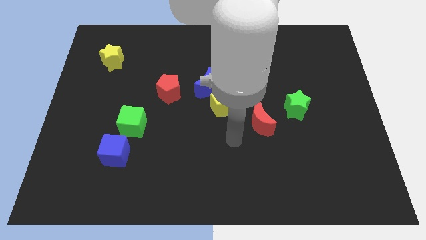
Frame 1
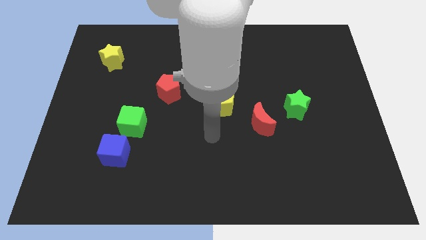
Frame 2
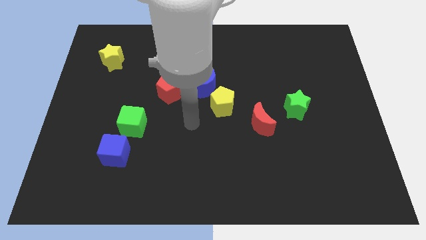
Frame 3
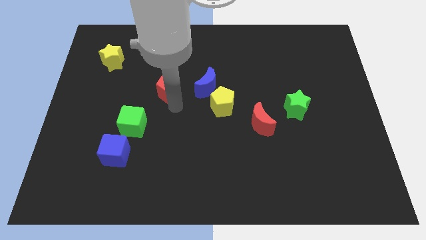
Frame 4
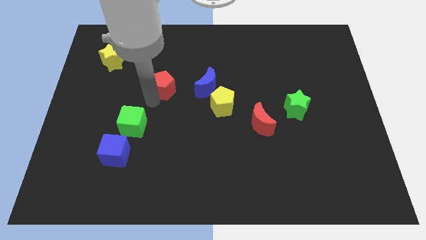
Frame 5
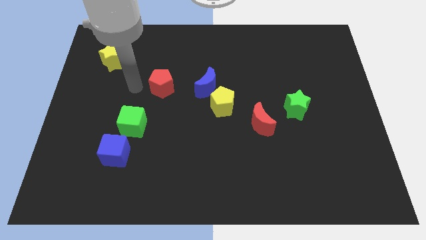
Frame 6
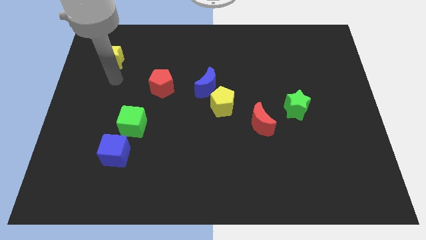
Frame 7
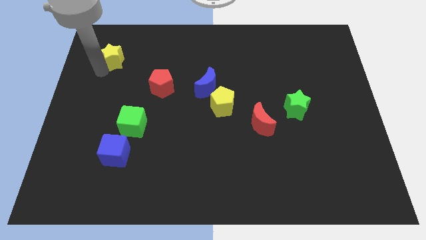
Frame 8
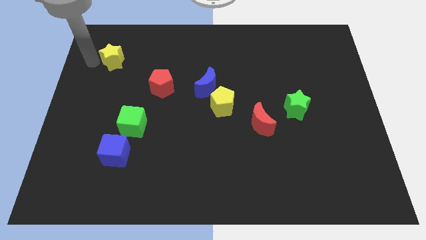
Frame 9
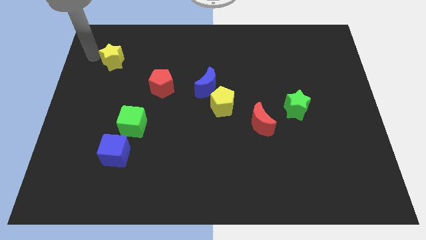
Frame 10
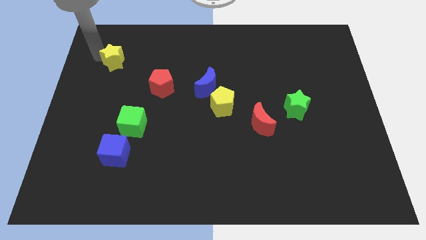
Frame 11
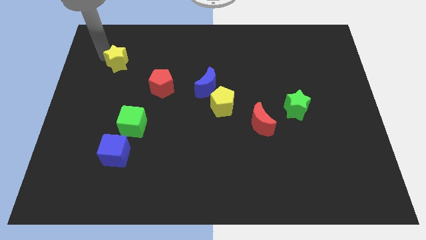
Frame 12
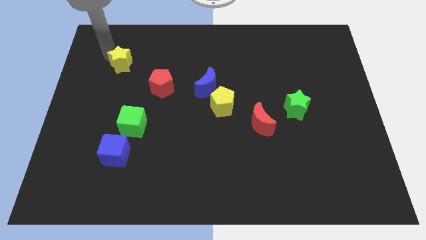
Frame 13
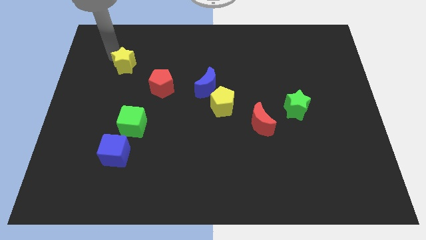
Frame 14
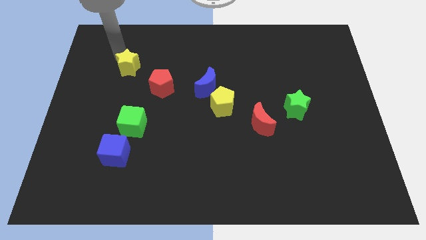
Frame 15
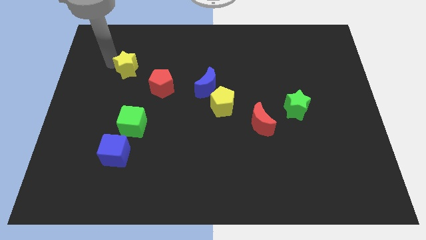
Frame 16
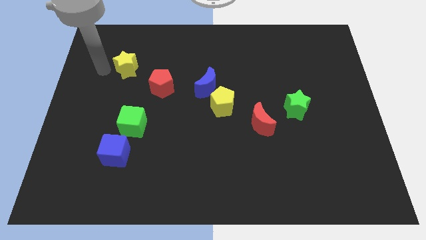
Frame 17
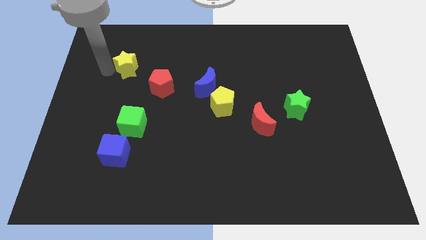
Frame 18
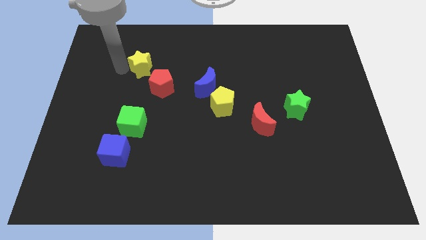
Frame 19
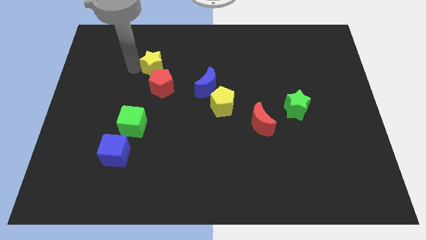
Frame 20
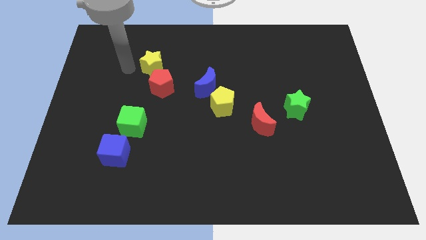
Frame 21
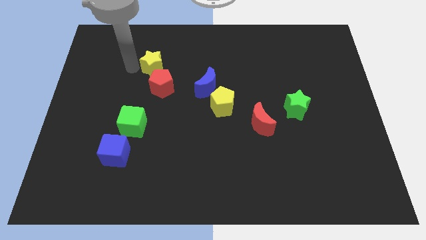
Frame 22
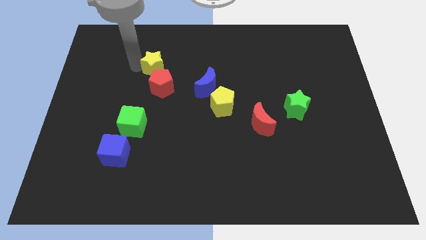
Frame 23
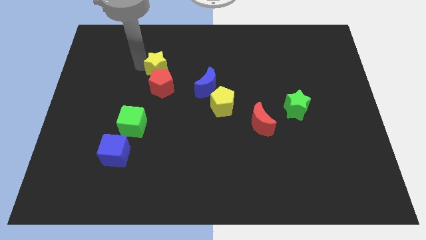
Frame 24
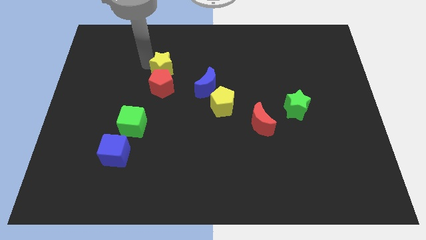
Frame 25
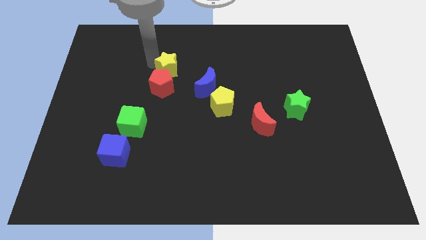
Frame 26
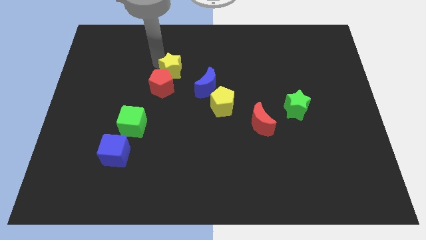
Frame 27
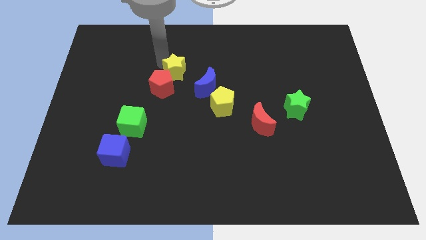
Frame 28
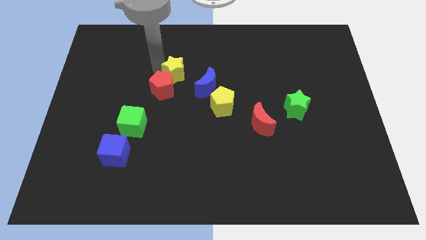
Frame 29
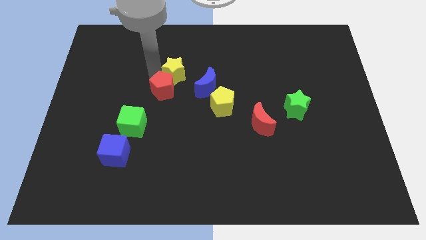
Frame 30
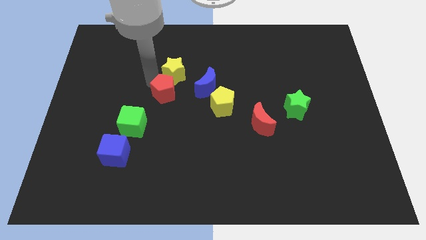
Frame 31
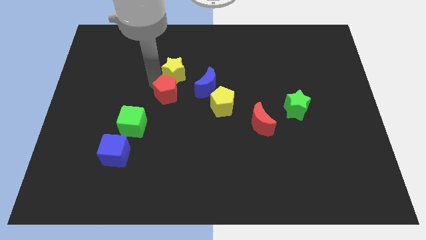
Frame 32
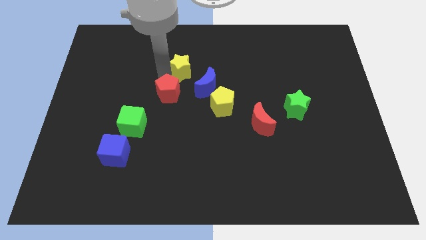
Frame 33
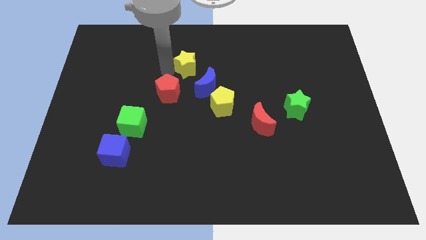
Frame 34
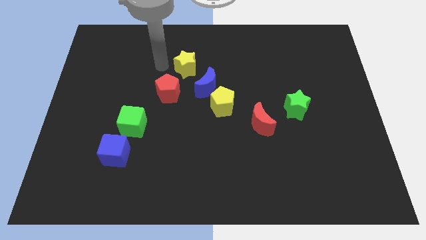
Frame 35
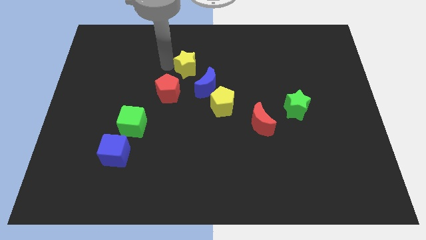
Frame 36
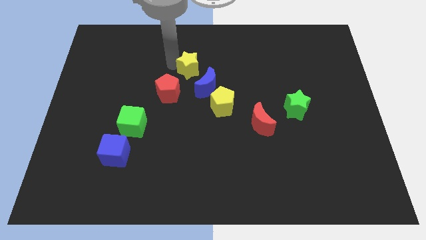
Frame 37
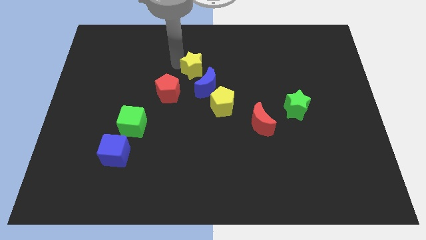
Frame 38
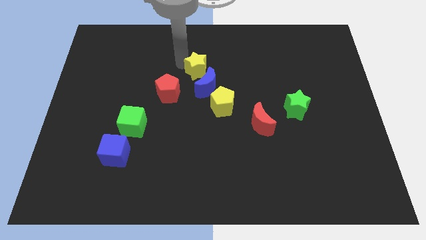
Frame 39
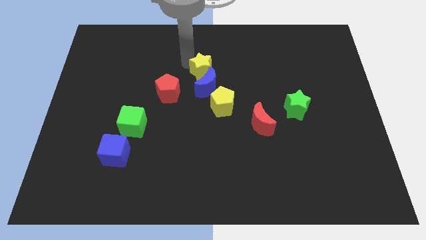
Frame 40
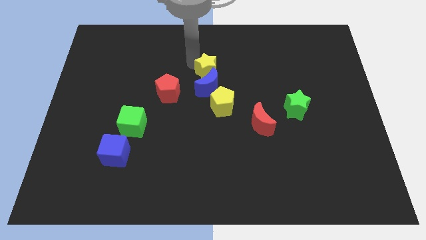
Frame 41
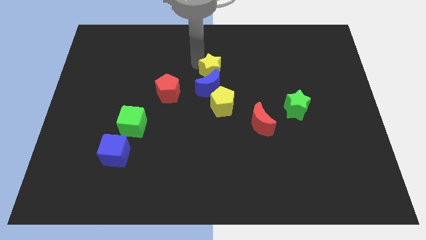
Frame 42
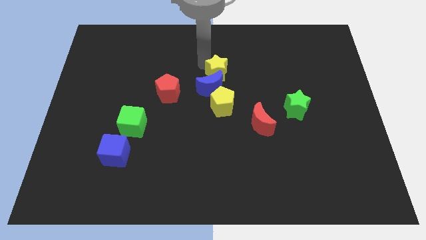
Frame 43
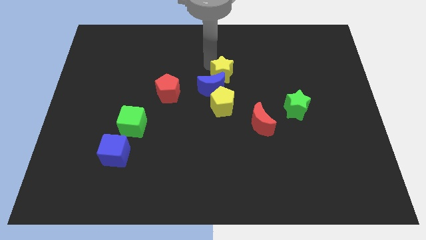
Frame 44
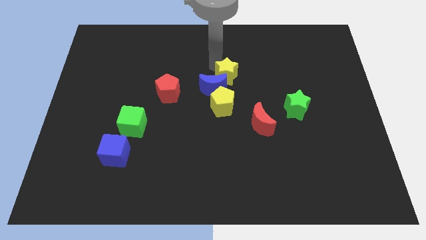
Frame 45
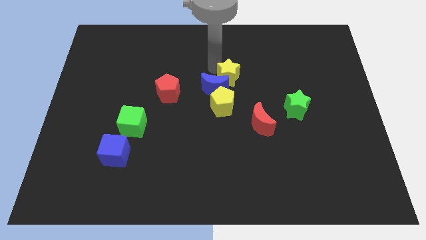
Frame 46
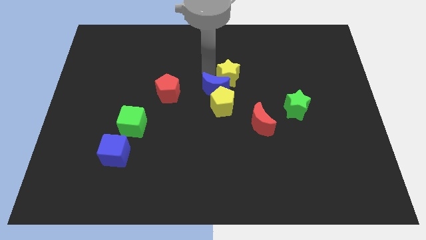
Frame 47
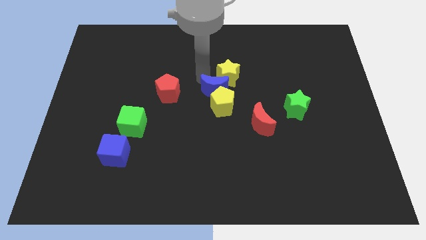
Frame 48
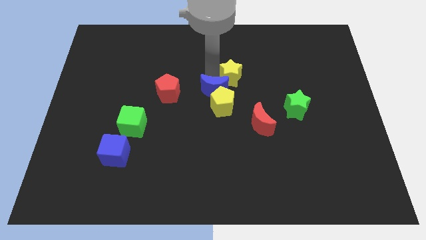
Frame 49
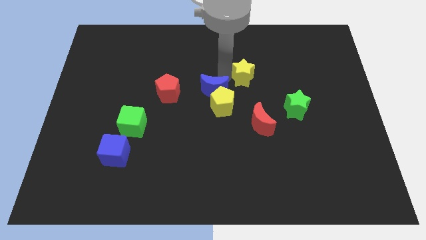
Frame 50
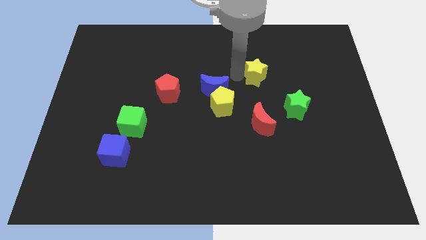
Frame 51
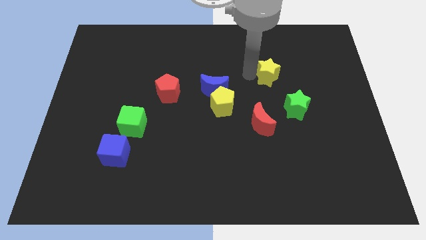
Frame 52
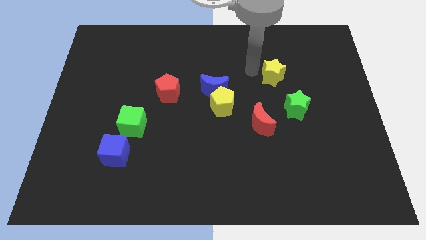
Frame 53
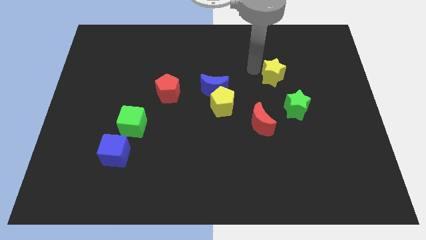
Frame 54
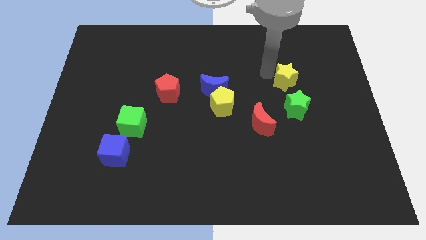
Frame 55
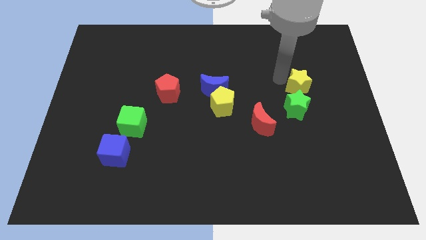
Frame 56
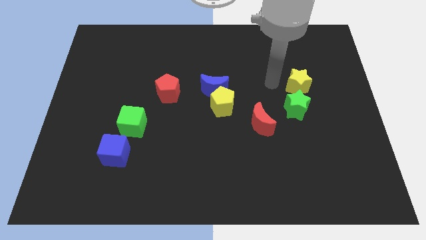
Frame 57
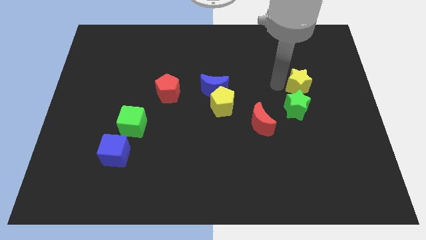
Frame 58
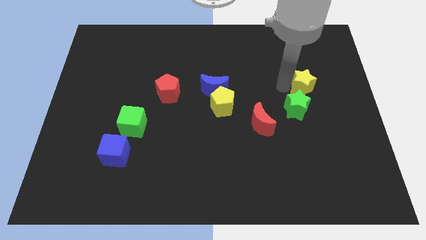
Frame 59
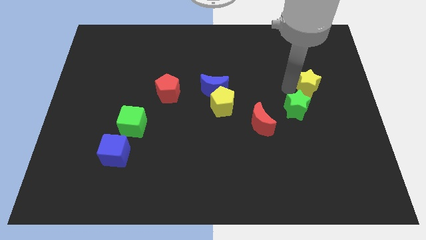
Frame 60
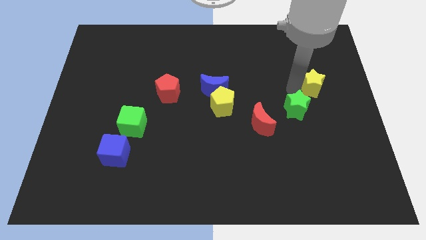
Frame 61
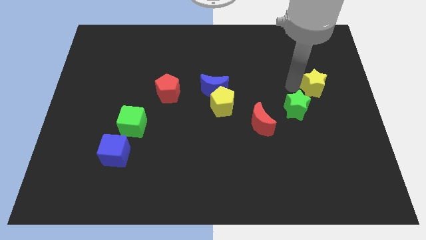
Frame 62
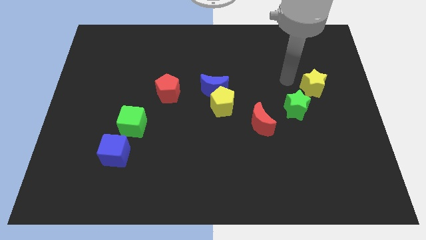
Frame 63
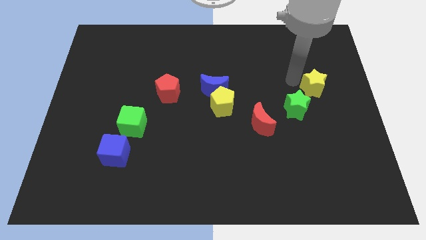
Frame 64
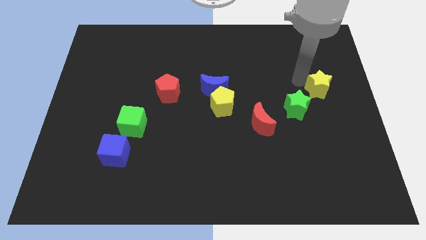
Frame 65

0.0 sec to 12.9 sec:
push the yellow star to the right side
